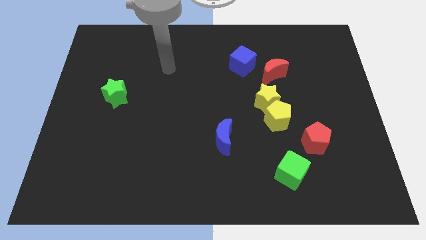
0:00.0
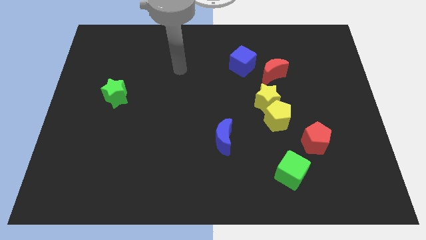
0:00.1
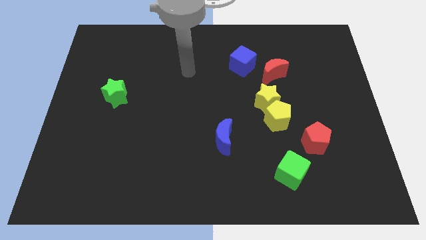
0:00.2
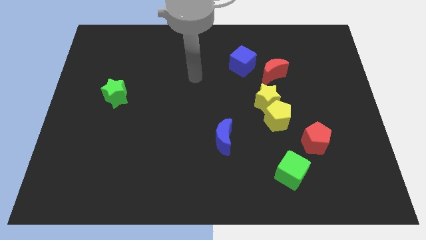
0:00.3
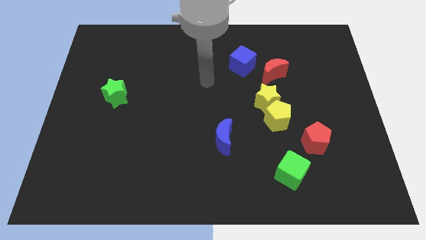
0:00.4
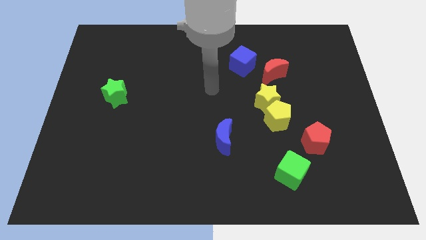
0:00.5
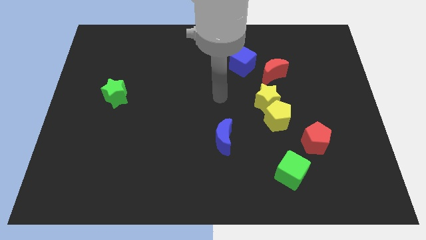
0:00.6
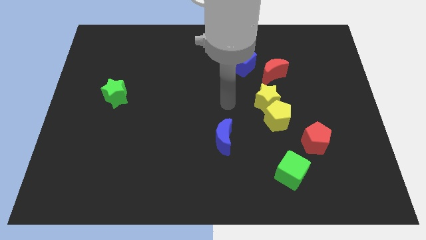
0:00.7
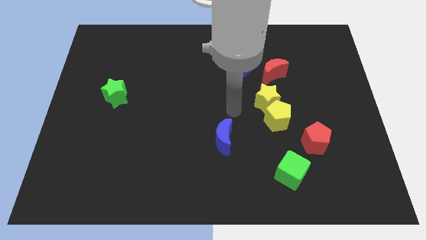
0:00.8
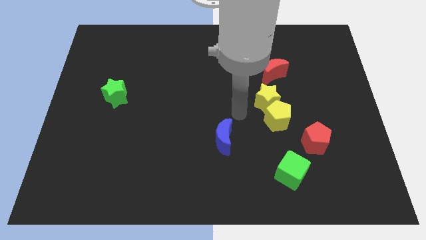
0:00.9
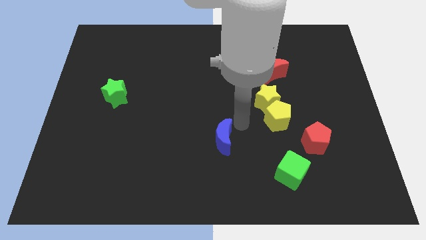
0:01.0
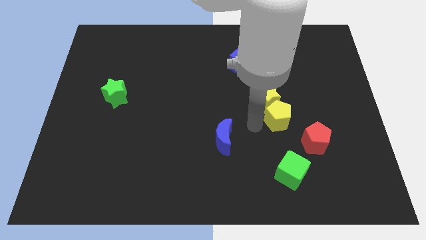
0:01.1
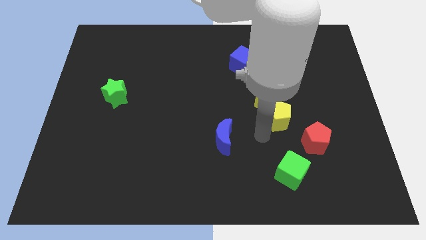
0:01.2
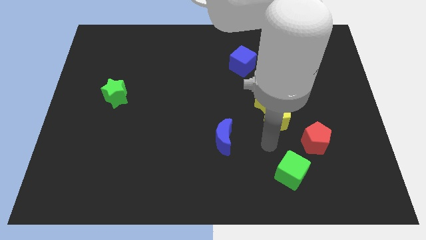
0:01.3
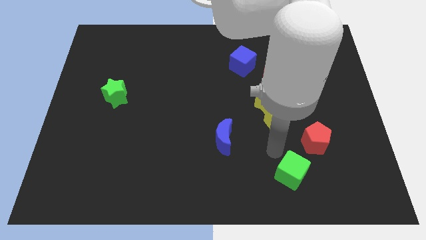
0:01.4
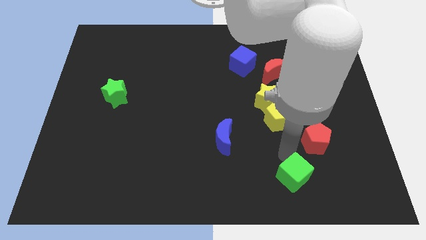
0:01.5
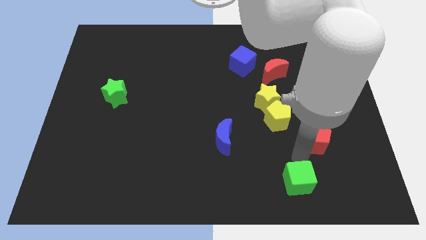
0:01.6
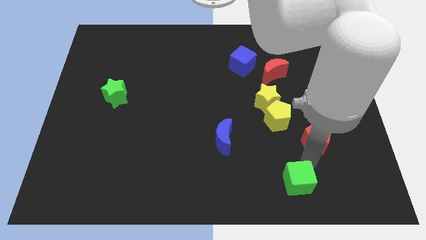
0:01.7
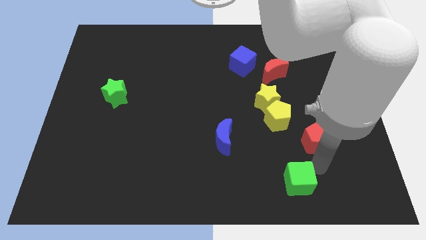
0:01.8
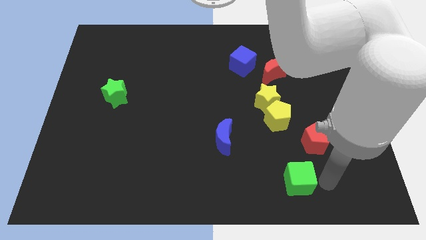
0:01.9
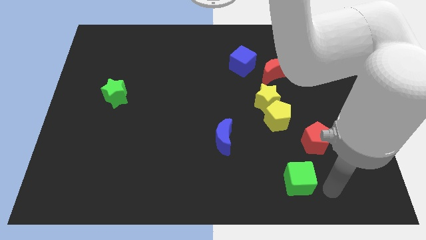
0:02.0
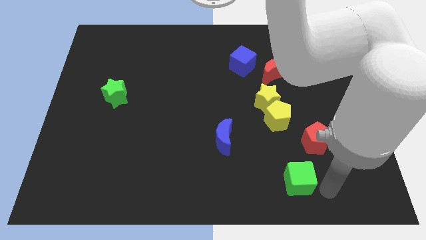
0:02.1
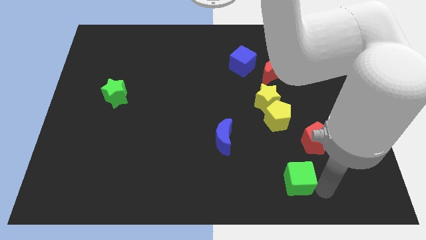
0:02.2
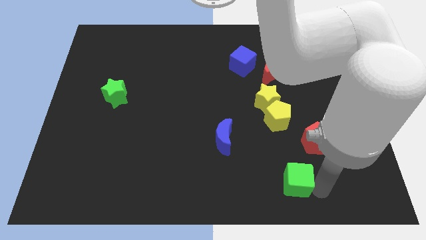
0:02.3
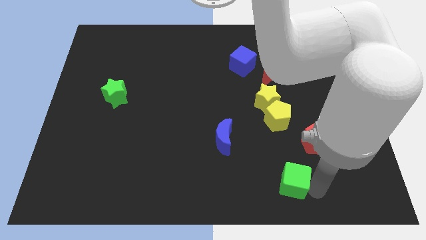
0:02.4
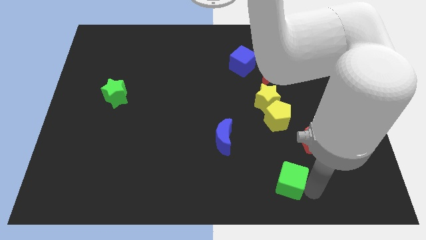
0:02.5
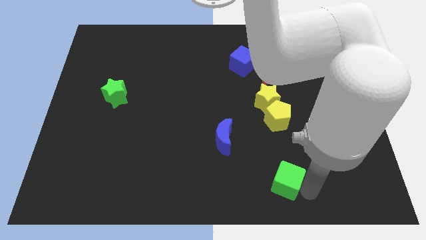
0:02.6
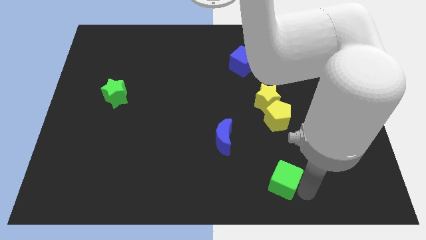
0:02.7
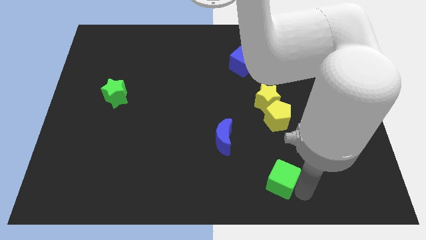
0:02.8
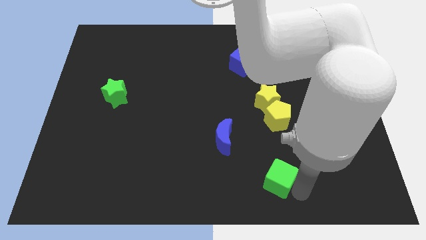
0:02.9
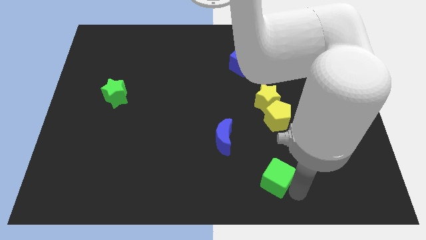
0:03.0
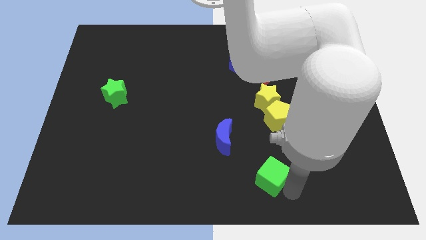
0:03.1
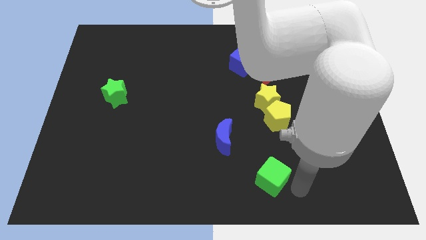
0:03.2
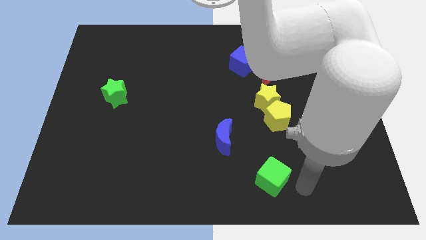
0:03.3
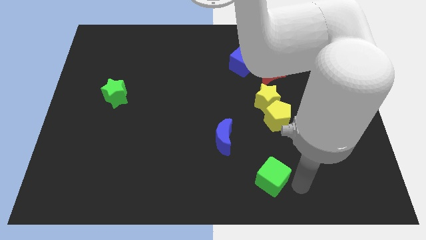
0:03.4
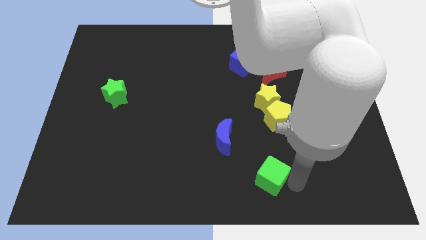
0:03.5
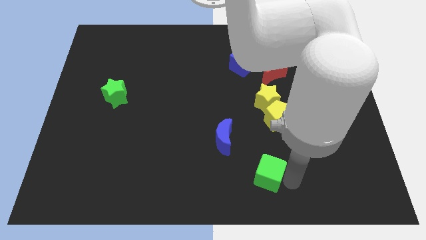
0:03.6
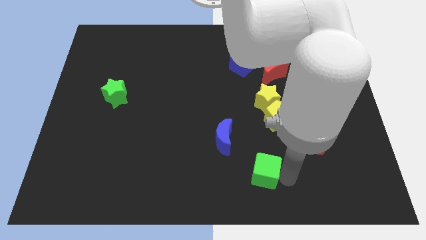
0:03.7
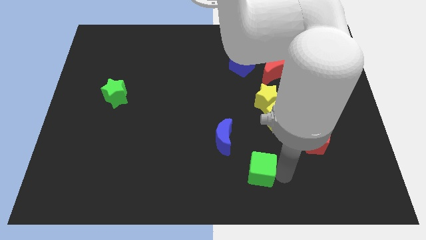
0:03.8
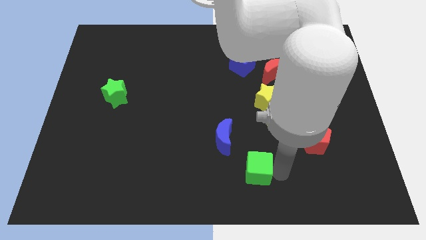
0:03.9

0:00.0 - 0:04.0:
slightly move the green cube left

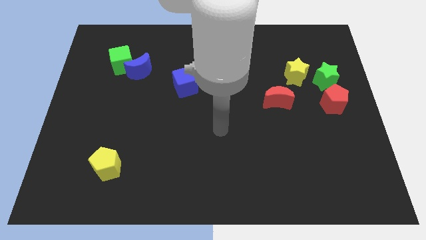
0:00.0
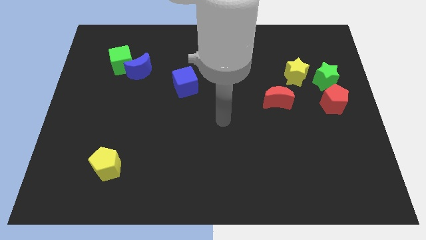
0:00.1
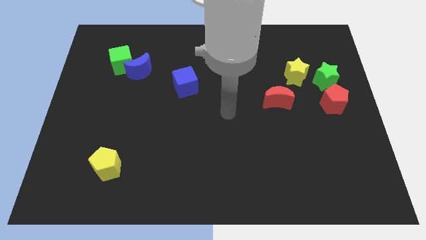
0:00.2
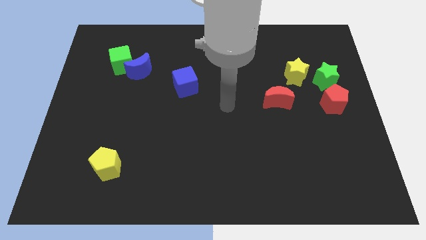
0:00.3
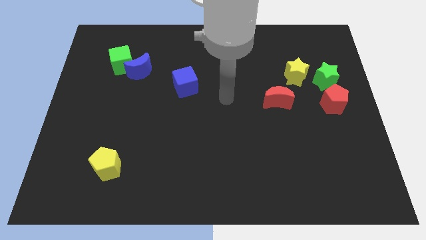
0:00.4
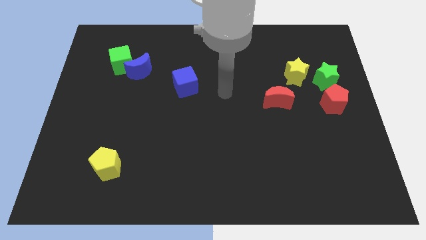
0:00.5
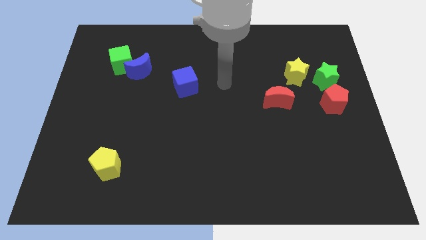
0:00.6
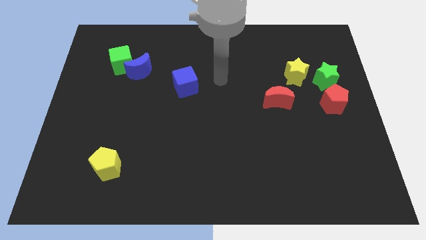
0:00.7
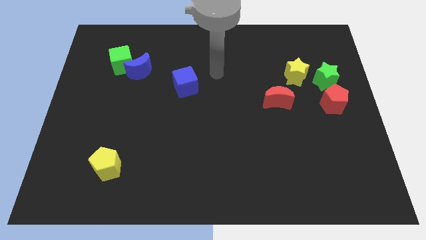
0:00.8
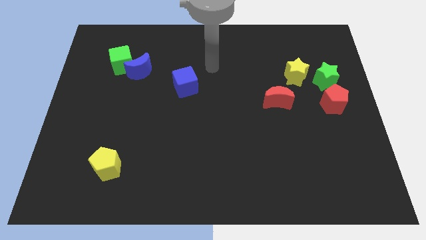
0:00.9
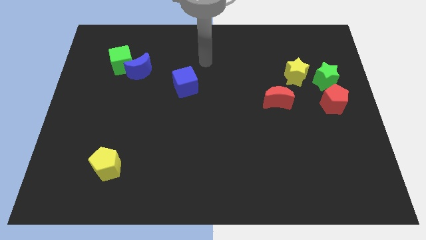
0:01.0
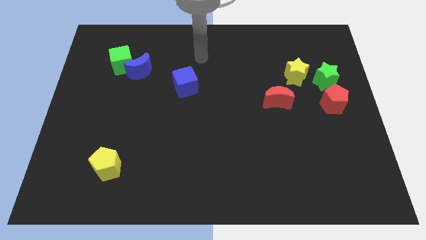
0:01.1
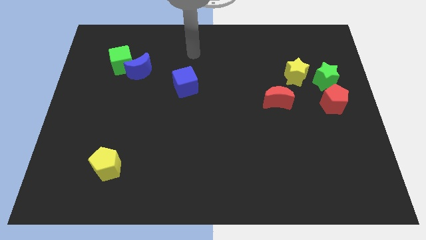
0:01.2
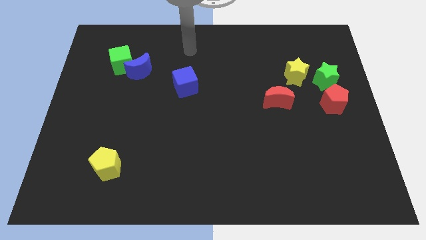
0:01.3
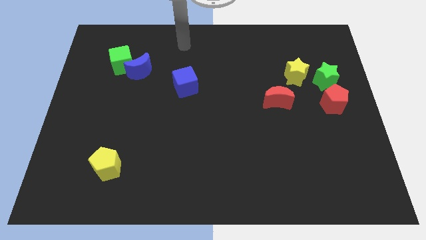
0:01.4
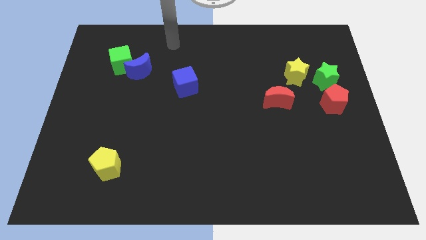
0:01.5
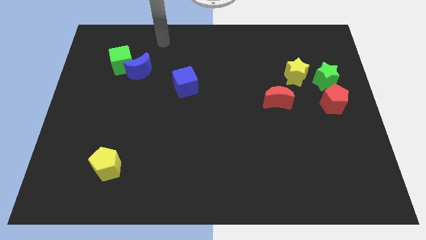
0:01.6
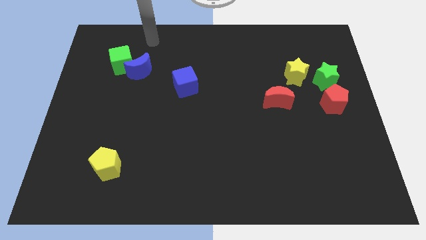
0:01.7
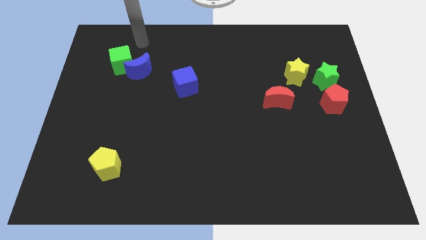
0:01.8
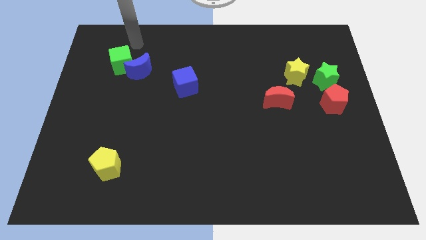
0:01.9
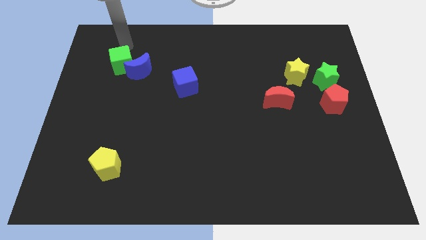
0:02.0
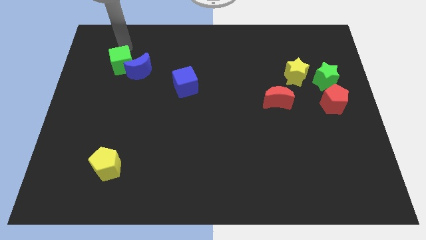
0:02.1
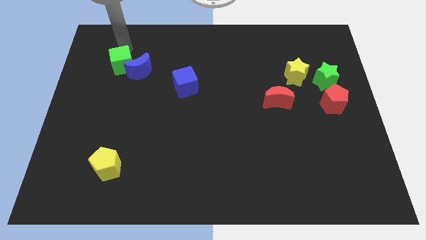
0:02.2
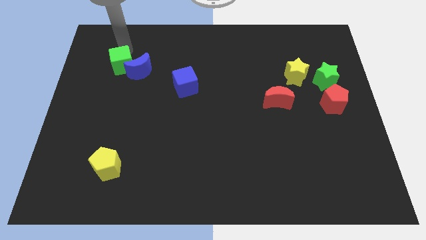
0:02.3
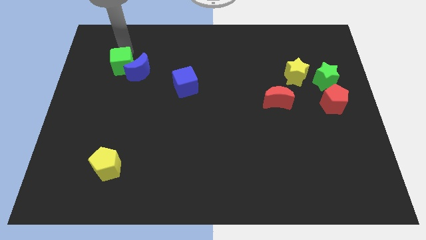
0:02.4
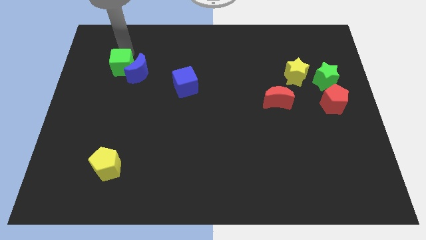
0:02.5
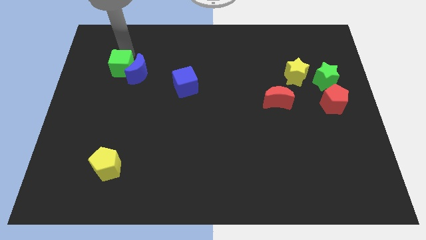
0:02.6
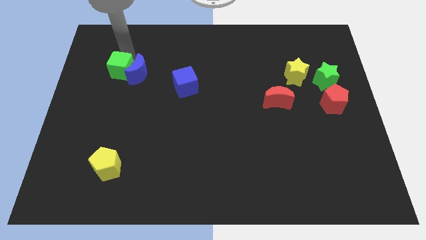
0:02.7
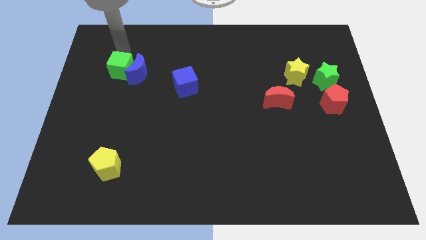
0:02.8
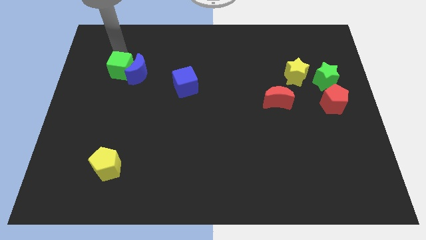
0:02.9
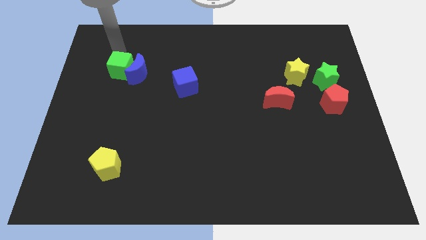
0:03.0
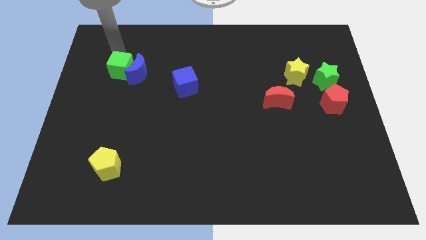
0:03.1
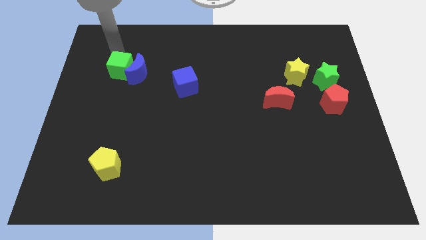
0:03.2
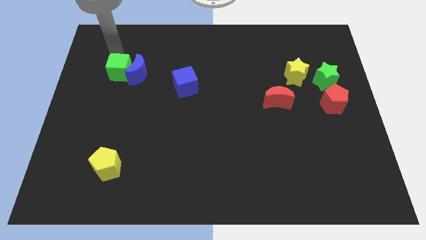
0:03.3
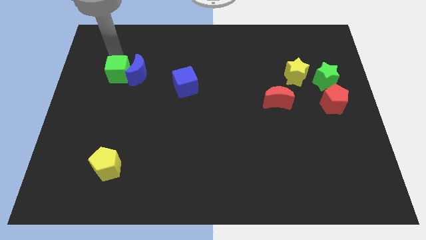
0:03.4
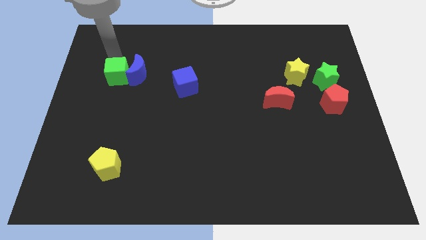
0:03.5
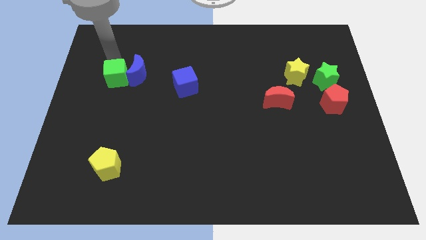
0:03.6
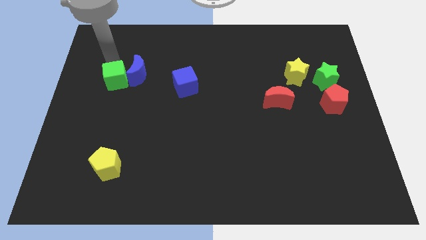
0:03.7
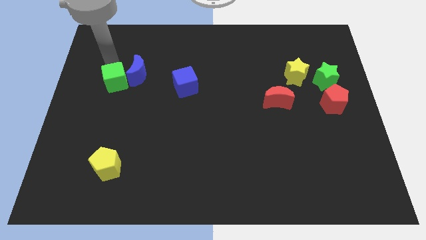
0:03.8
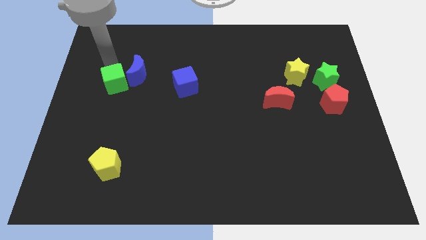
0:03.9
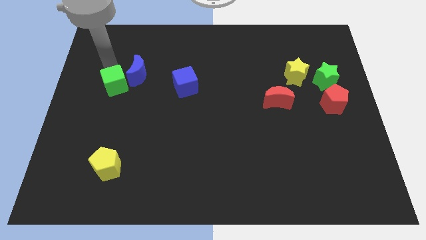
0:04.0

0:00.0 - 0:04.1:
slightly slide the green cube downwards
